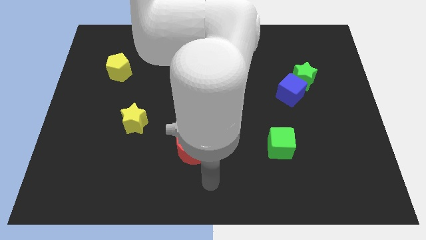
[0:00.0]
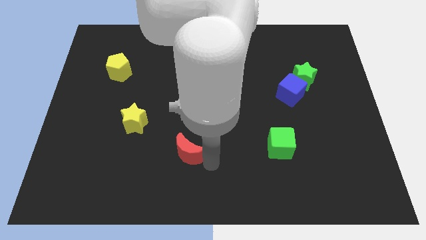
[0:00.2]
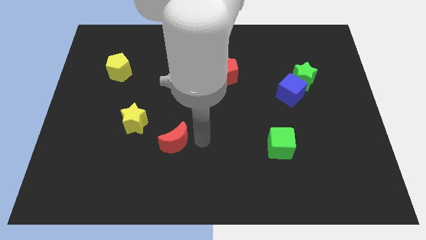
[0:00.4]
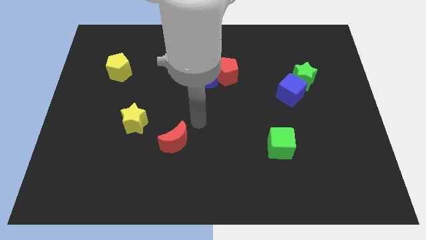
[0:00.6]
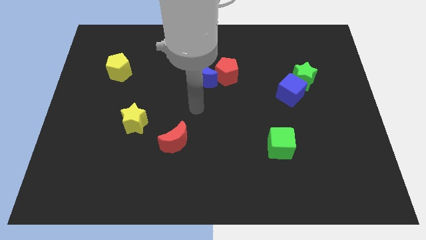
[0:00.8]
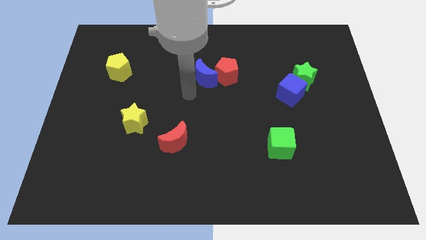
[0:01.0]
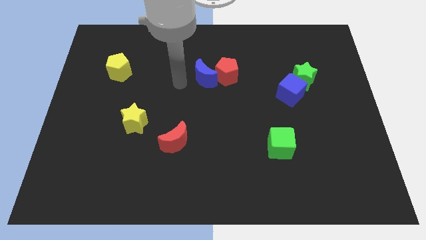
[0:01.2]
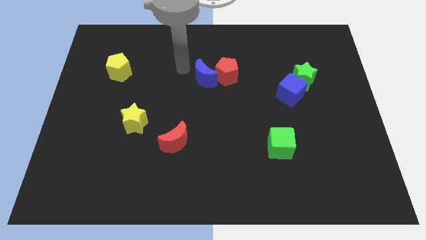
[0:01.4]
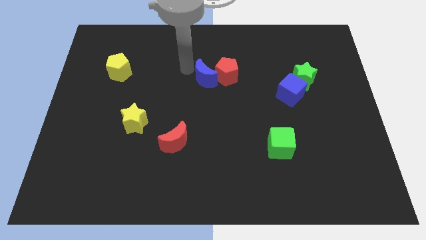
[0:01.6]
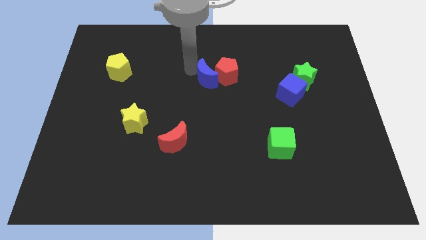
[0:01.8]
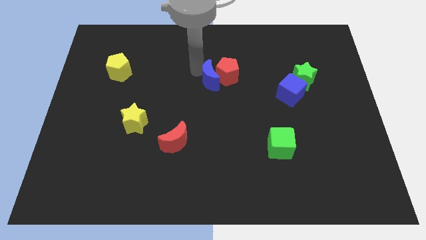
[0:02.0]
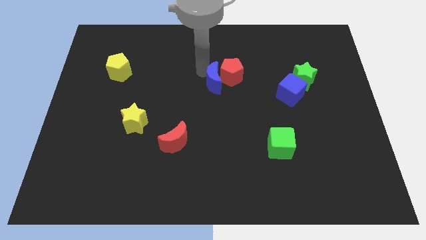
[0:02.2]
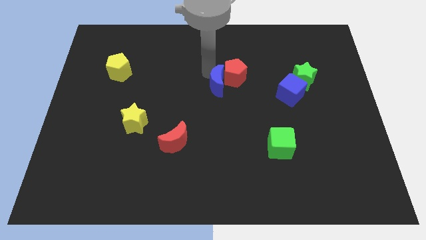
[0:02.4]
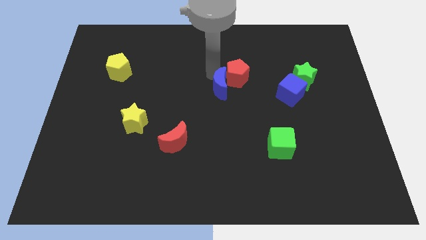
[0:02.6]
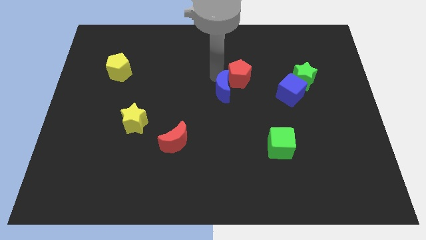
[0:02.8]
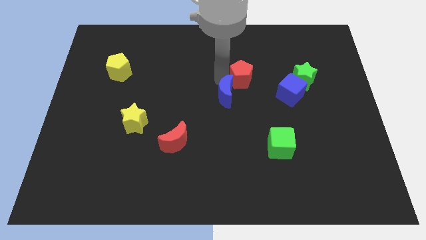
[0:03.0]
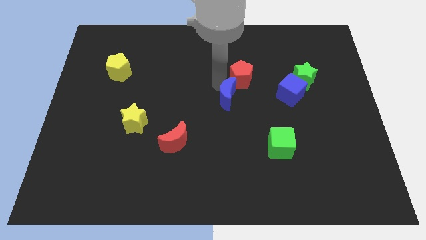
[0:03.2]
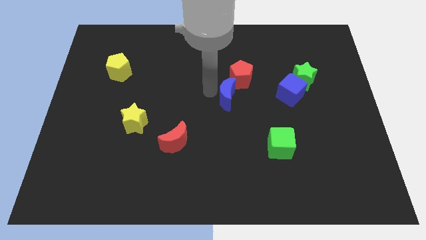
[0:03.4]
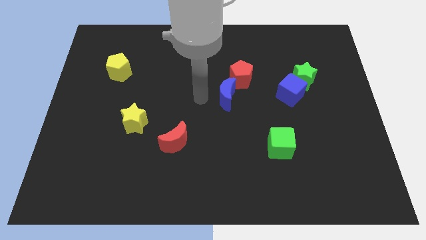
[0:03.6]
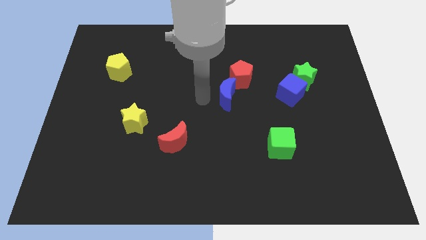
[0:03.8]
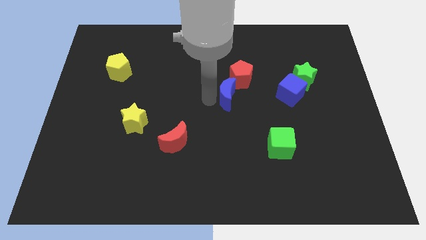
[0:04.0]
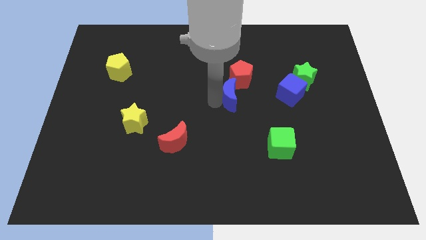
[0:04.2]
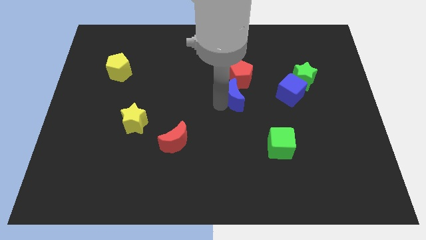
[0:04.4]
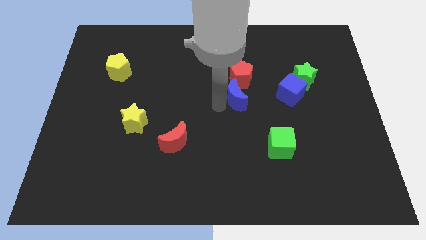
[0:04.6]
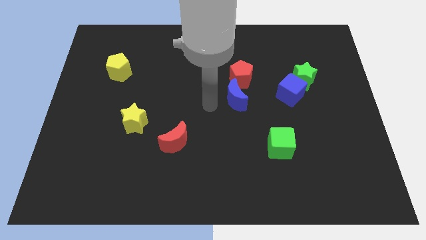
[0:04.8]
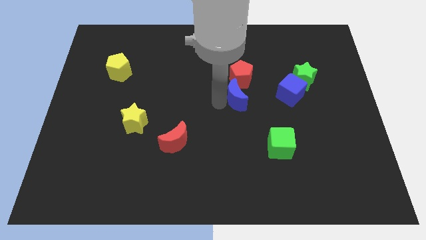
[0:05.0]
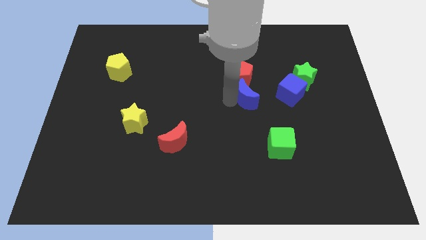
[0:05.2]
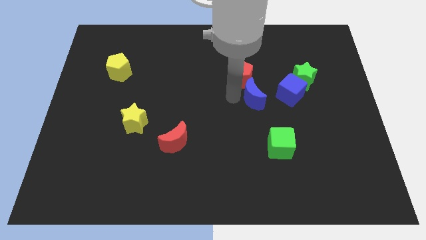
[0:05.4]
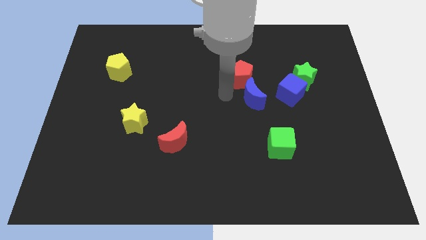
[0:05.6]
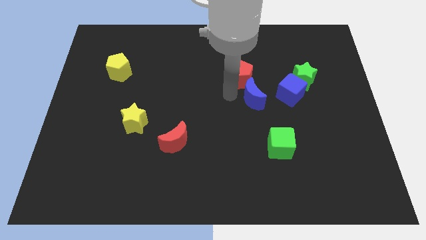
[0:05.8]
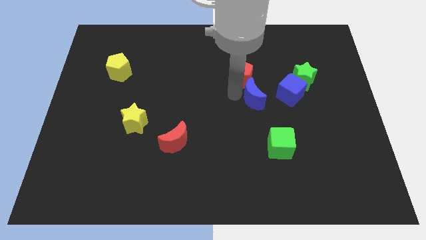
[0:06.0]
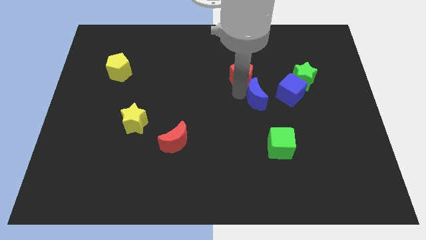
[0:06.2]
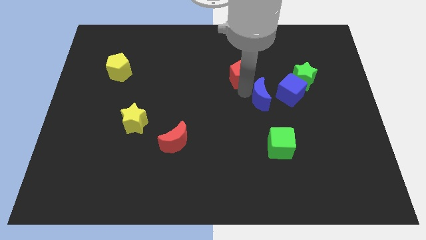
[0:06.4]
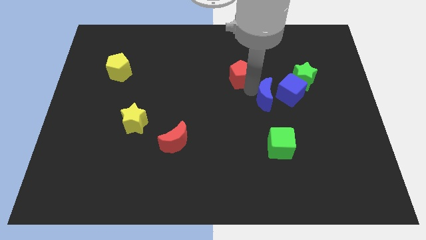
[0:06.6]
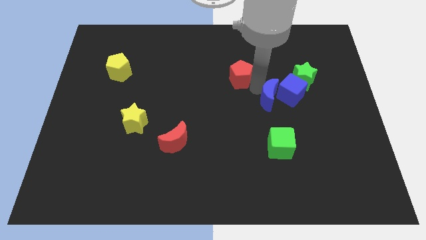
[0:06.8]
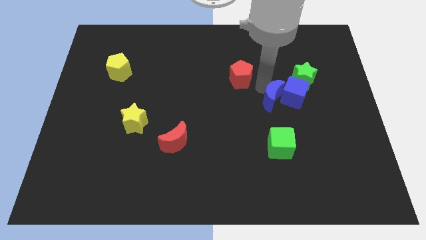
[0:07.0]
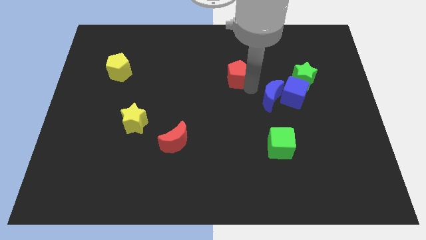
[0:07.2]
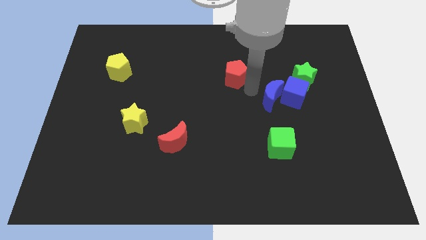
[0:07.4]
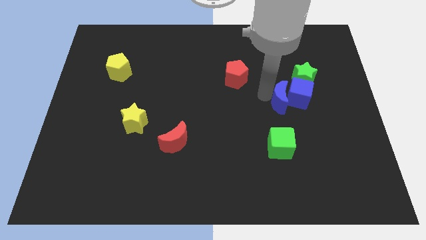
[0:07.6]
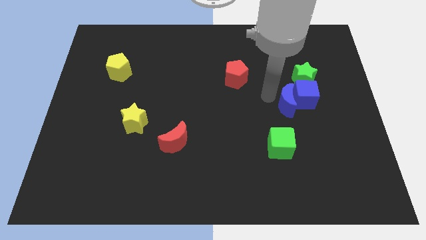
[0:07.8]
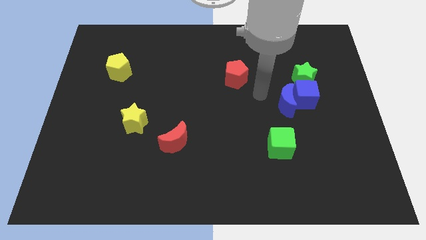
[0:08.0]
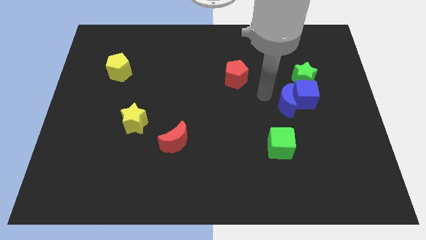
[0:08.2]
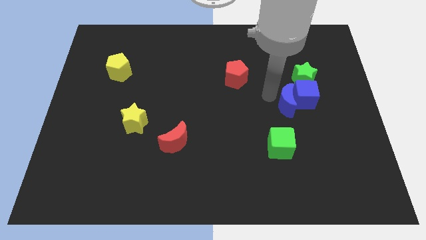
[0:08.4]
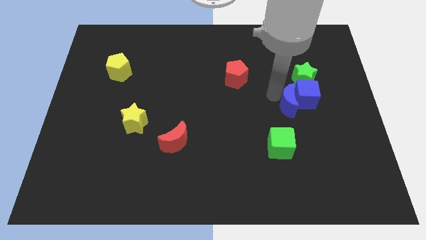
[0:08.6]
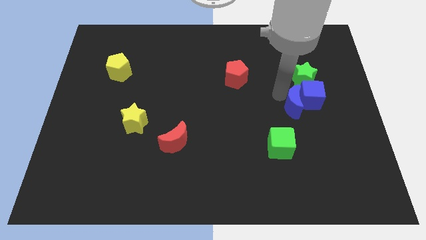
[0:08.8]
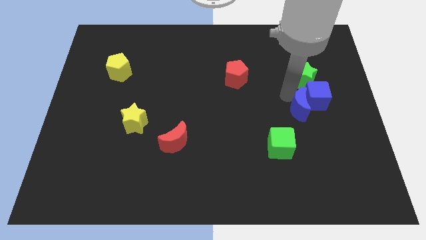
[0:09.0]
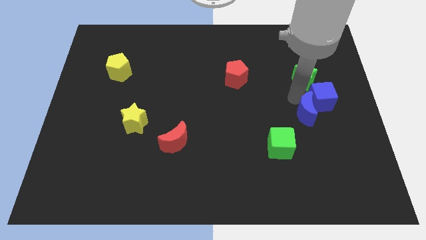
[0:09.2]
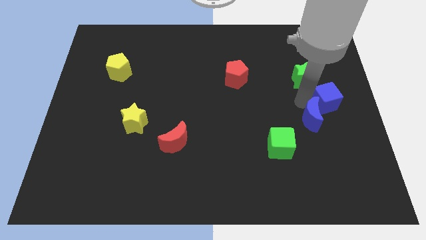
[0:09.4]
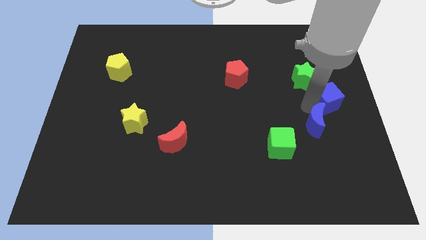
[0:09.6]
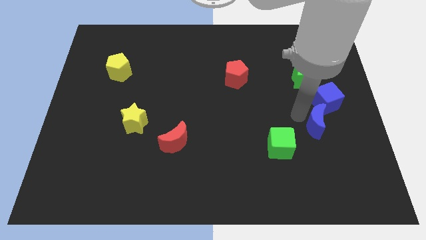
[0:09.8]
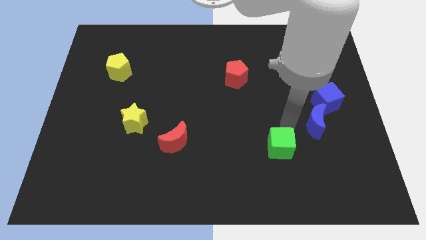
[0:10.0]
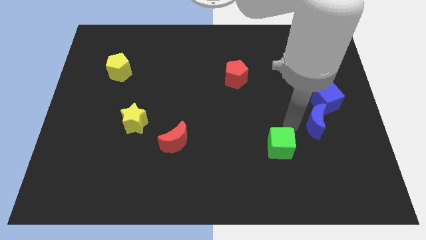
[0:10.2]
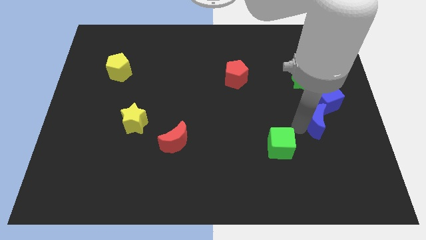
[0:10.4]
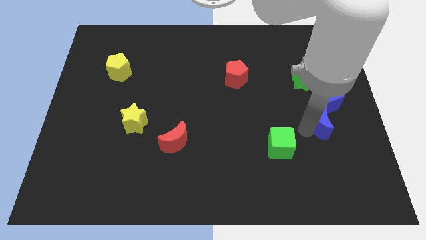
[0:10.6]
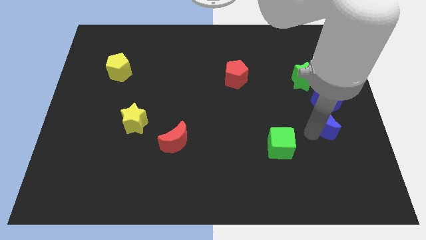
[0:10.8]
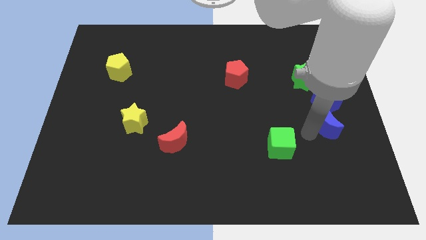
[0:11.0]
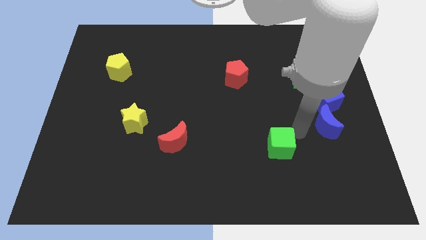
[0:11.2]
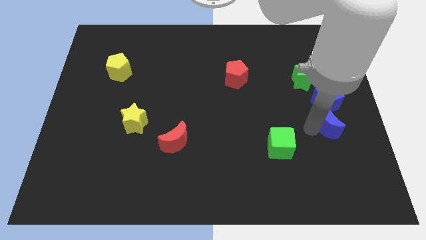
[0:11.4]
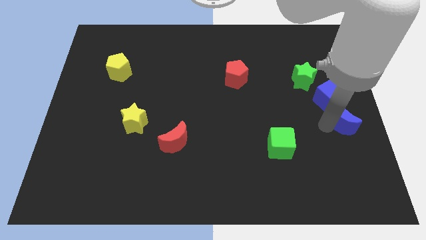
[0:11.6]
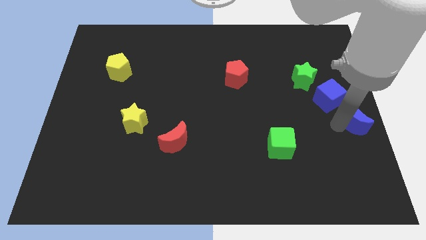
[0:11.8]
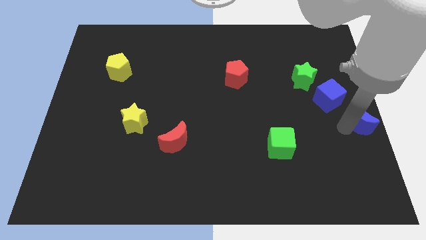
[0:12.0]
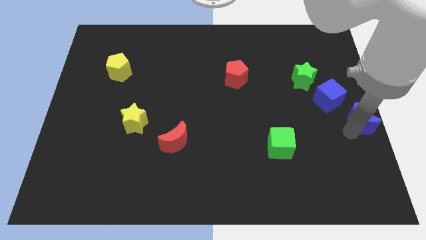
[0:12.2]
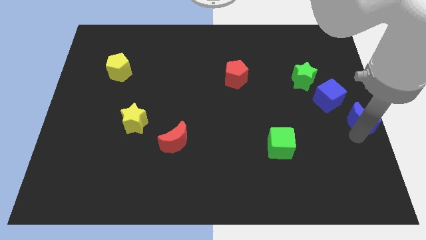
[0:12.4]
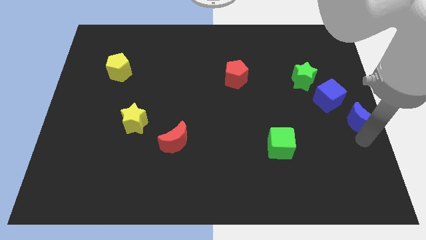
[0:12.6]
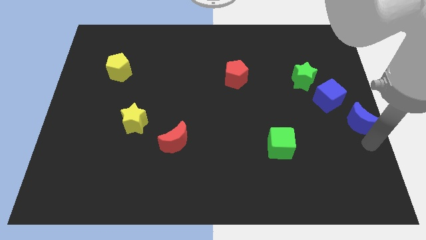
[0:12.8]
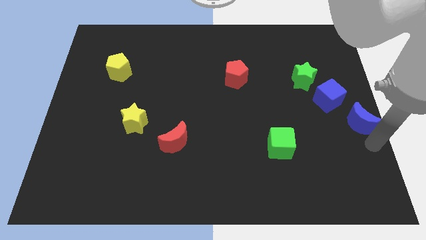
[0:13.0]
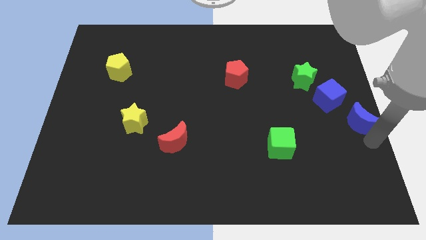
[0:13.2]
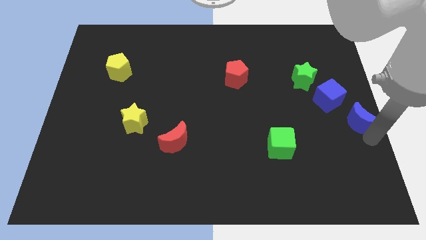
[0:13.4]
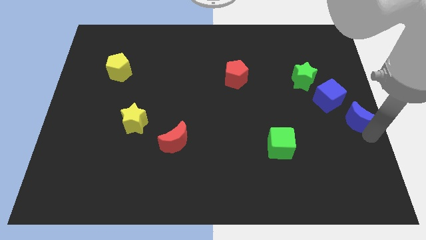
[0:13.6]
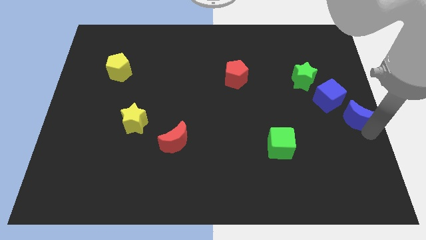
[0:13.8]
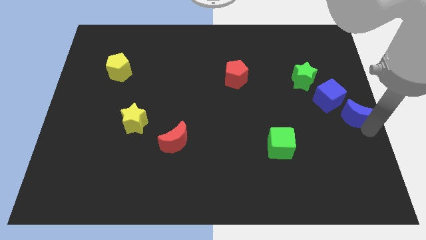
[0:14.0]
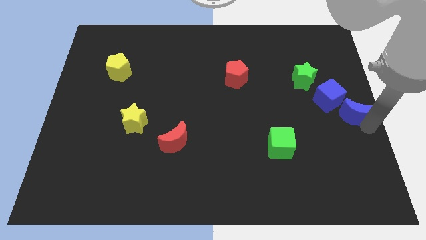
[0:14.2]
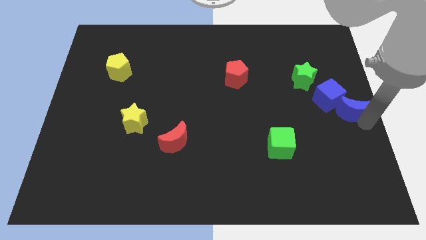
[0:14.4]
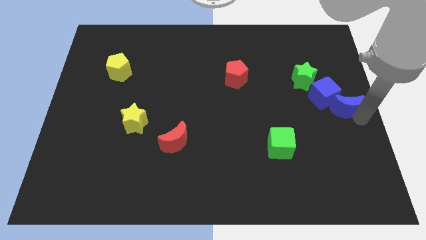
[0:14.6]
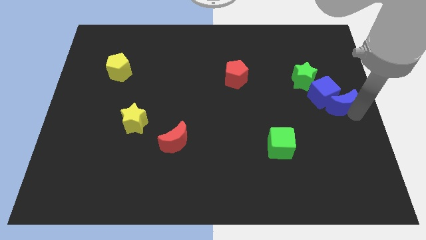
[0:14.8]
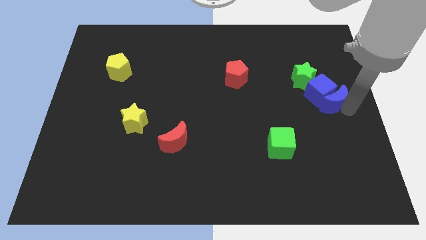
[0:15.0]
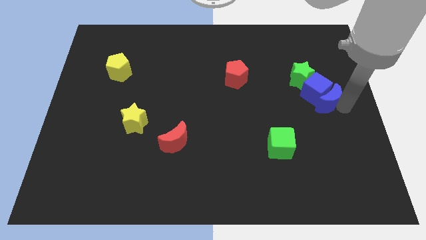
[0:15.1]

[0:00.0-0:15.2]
push the blue moon diagonally down and to the right of the blue cube
